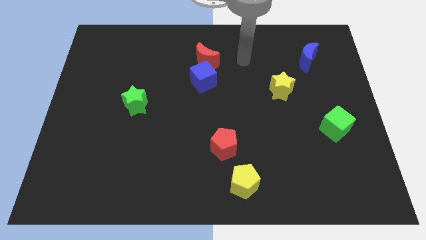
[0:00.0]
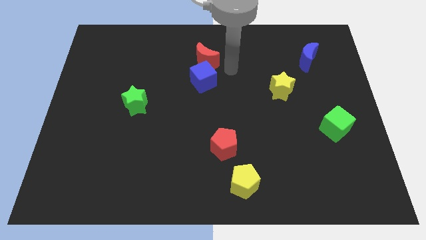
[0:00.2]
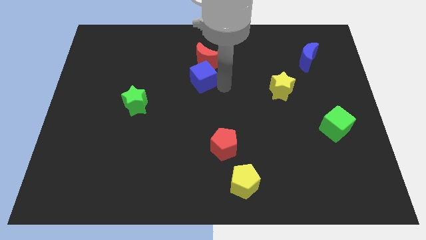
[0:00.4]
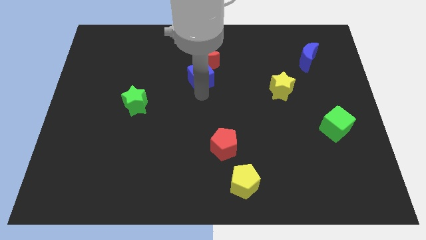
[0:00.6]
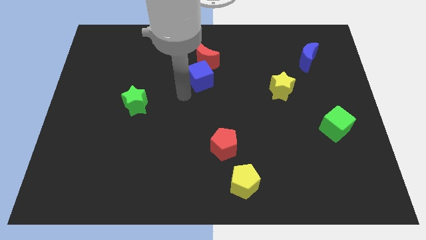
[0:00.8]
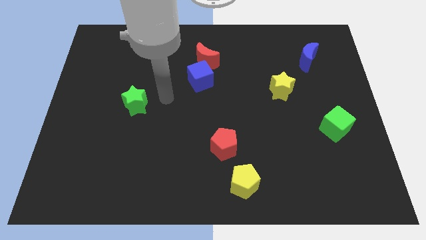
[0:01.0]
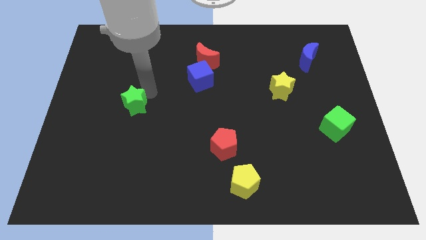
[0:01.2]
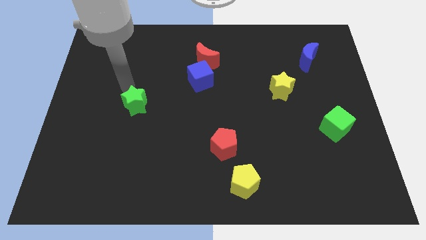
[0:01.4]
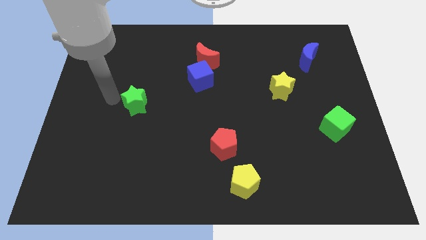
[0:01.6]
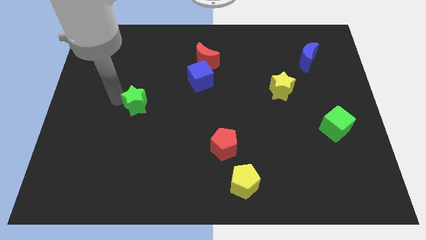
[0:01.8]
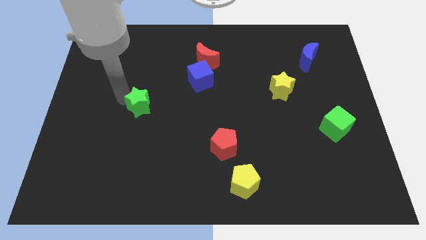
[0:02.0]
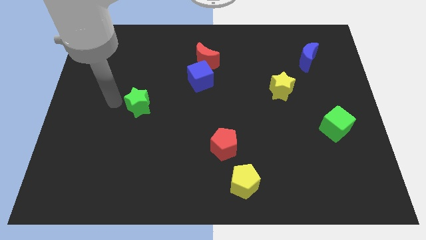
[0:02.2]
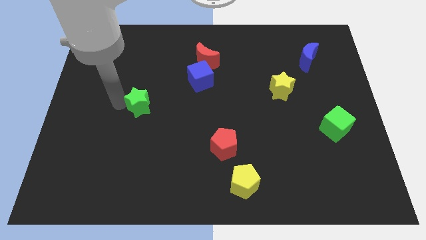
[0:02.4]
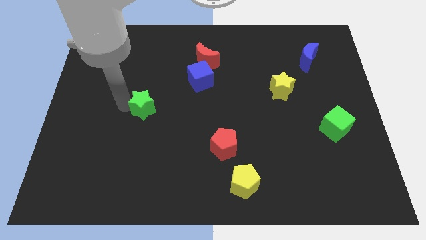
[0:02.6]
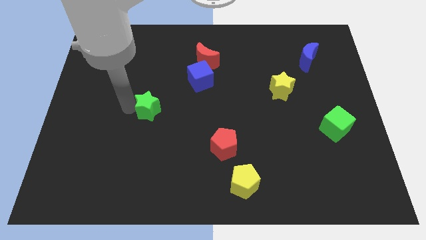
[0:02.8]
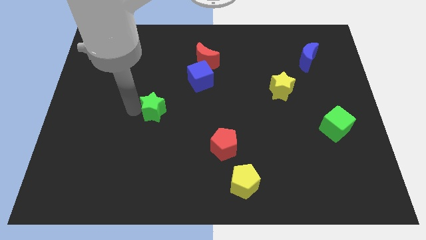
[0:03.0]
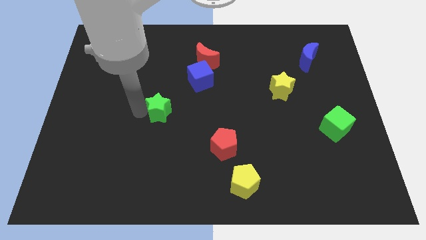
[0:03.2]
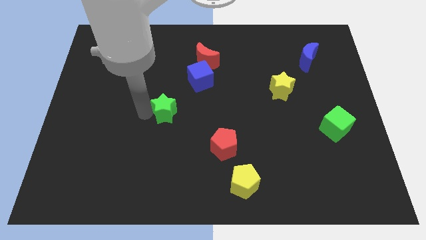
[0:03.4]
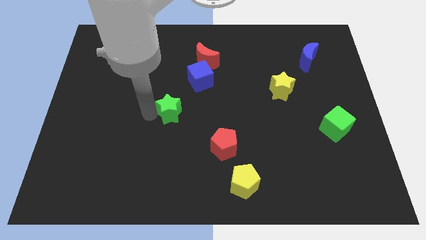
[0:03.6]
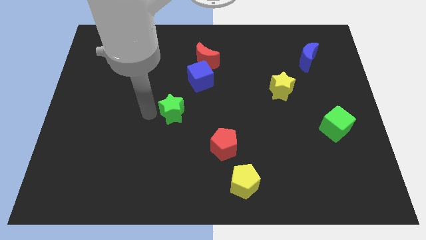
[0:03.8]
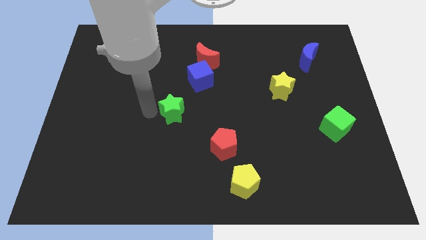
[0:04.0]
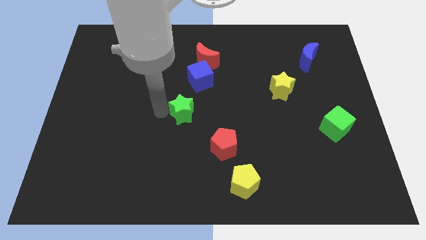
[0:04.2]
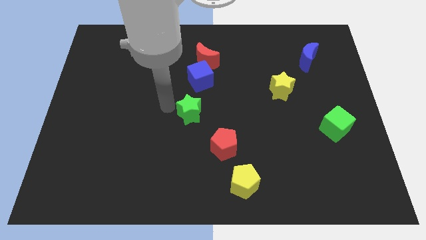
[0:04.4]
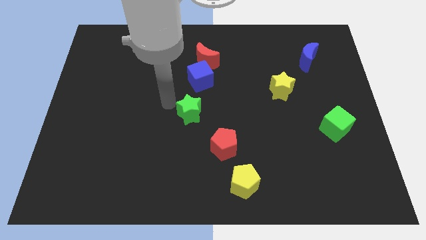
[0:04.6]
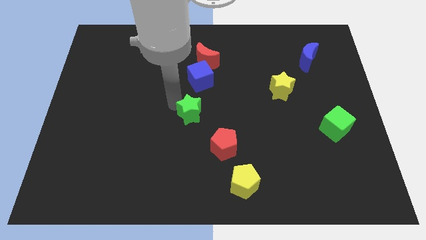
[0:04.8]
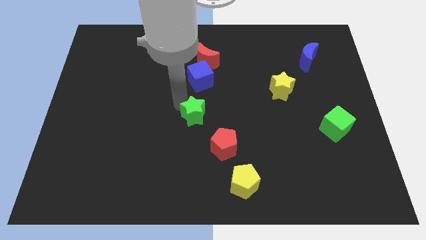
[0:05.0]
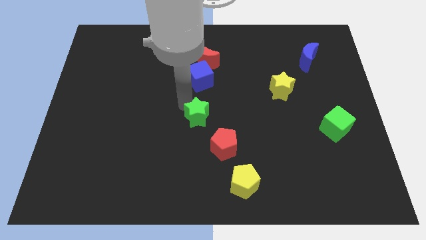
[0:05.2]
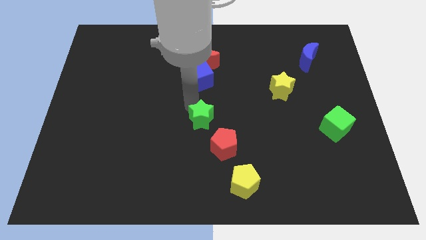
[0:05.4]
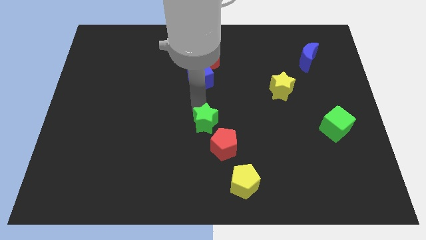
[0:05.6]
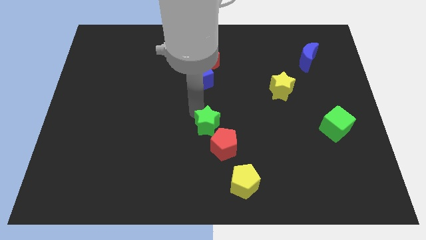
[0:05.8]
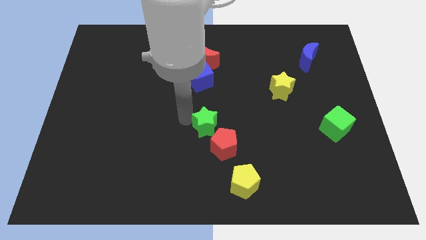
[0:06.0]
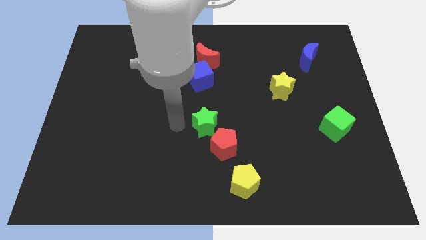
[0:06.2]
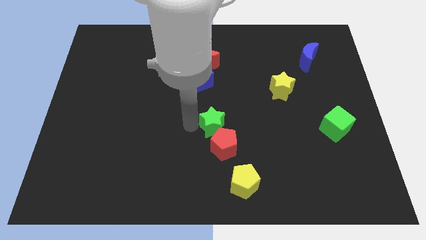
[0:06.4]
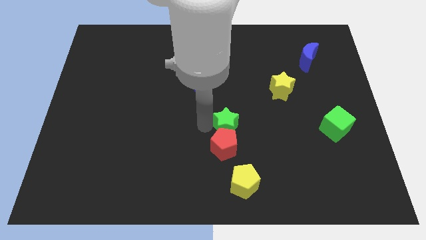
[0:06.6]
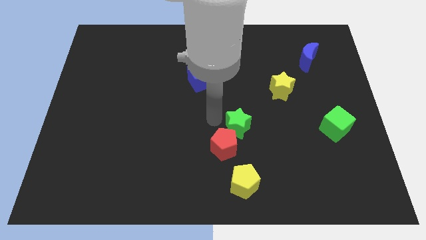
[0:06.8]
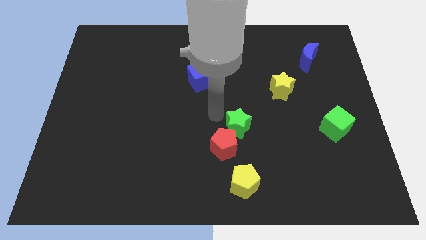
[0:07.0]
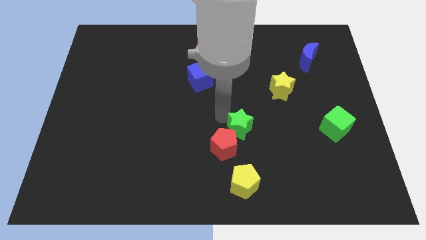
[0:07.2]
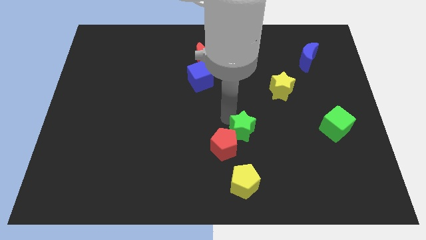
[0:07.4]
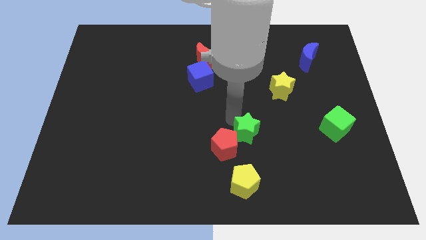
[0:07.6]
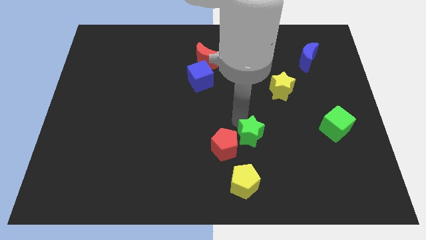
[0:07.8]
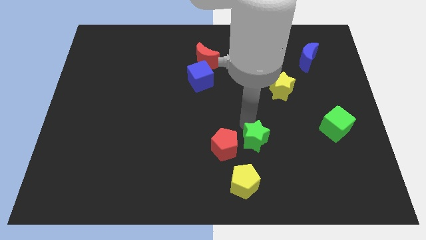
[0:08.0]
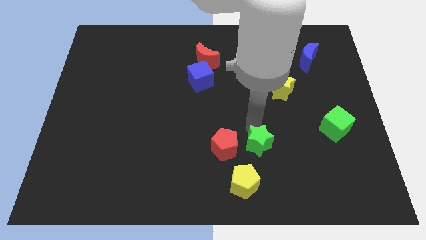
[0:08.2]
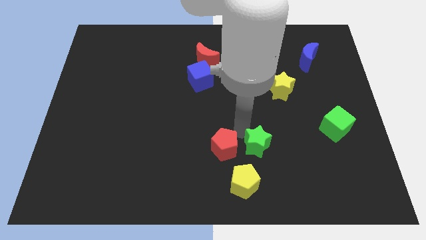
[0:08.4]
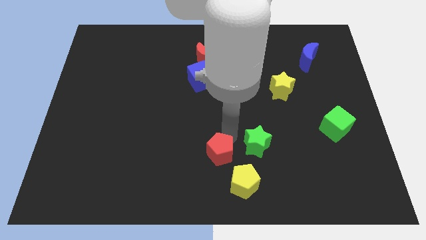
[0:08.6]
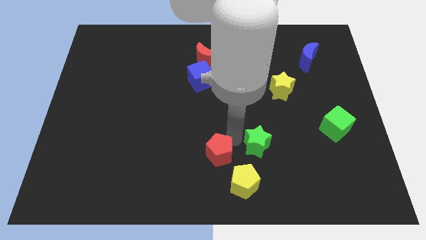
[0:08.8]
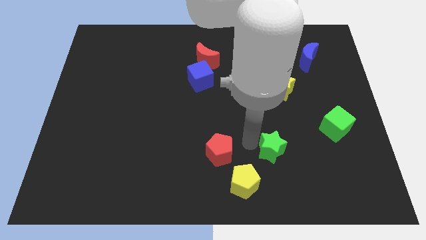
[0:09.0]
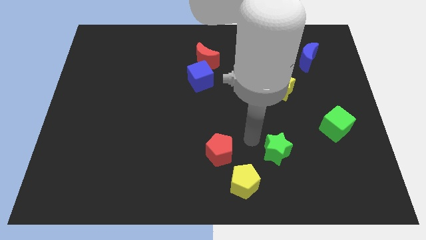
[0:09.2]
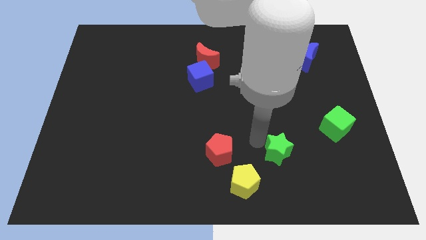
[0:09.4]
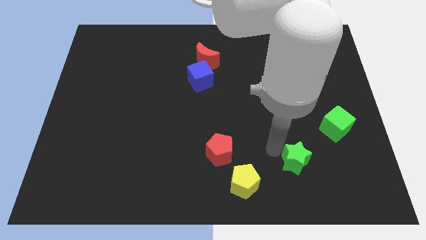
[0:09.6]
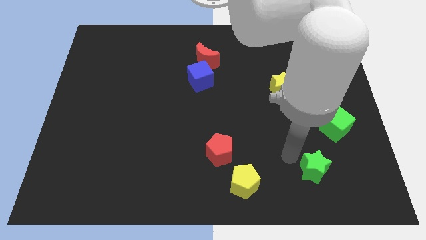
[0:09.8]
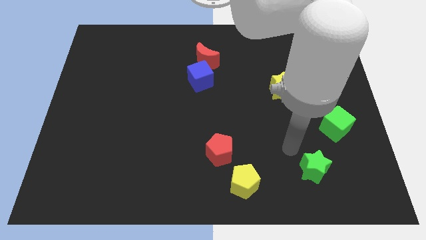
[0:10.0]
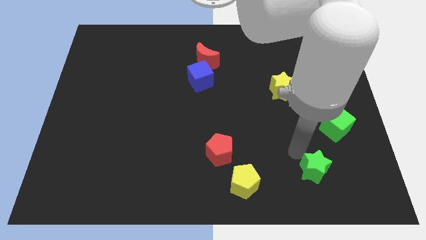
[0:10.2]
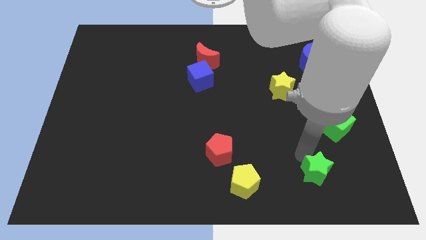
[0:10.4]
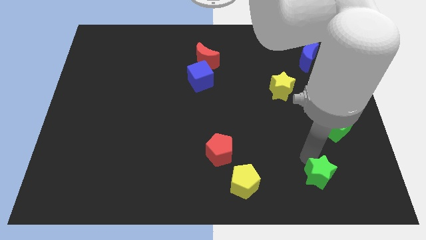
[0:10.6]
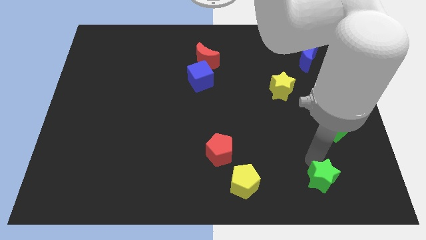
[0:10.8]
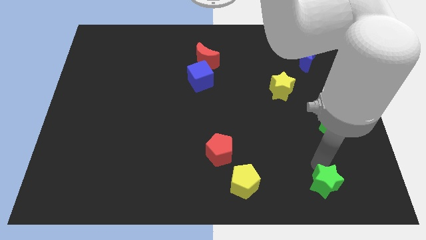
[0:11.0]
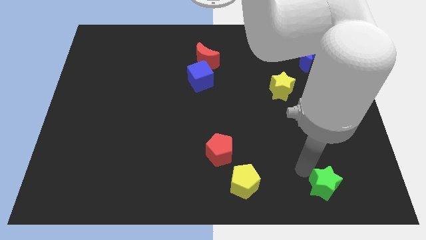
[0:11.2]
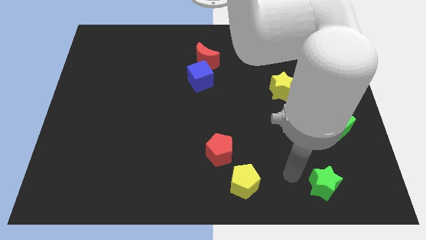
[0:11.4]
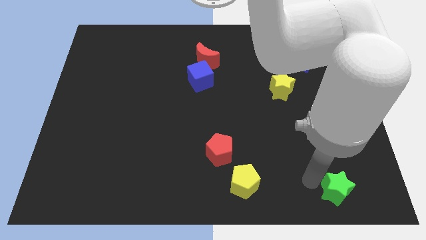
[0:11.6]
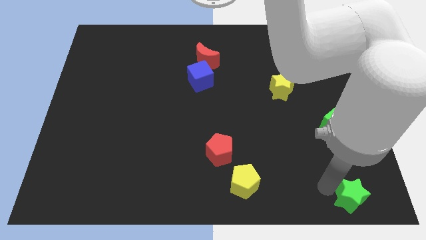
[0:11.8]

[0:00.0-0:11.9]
slide the green star to the bottom right of the board
